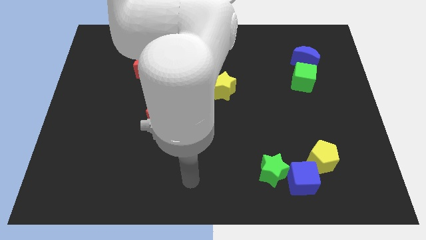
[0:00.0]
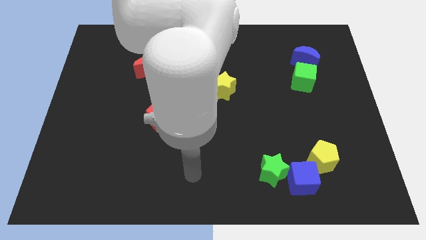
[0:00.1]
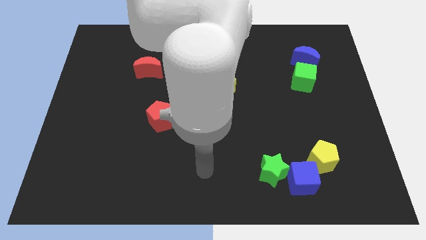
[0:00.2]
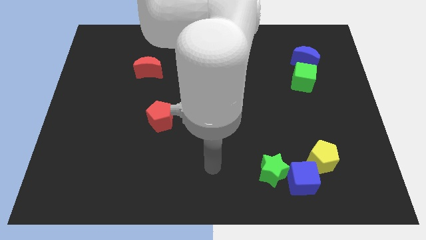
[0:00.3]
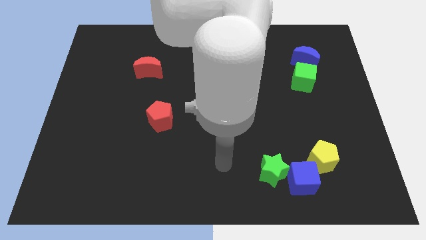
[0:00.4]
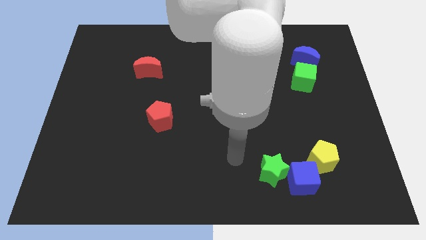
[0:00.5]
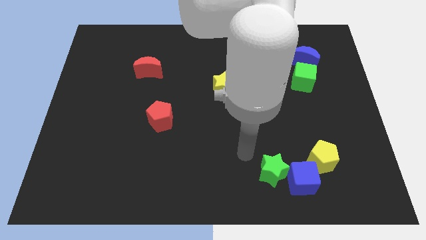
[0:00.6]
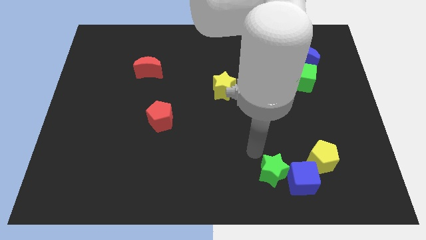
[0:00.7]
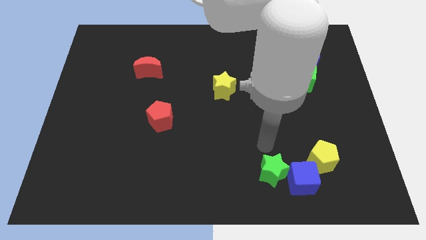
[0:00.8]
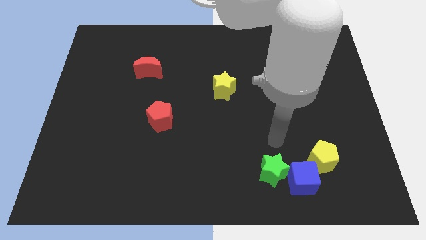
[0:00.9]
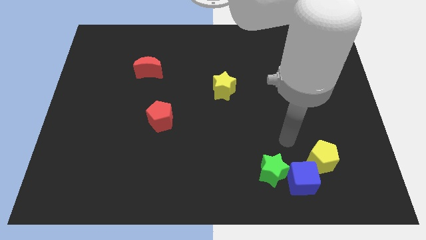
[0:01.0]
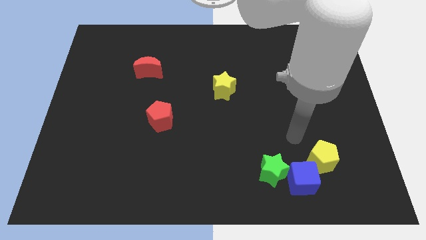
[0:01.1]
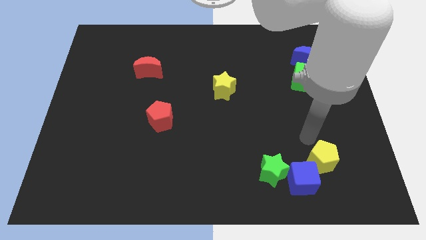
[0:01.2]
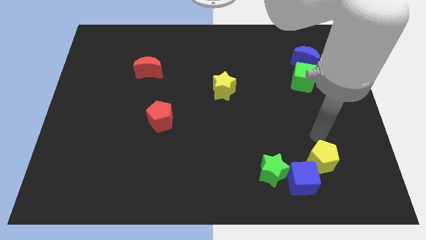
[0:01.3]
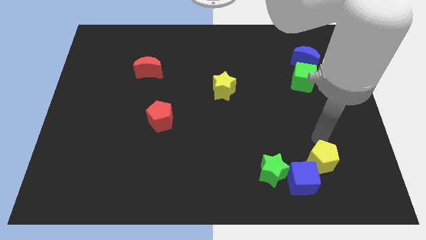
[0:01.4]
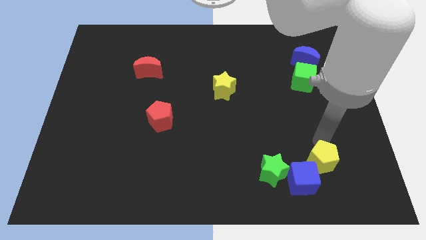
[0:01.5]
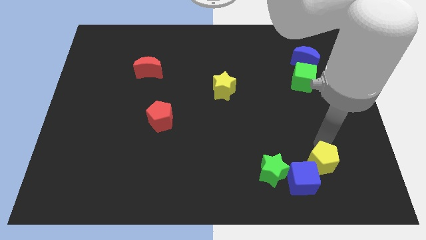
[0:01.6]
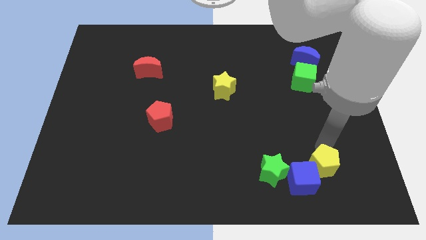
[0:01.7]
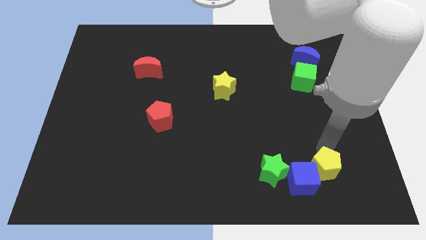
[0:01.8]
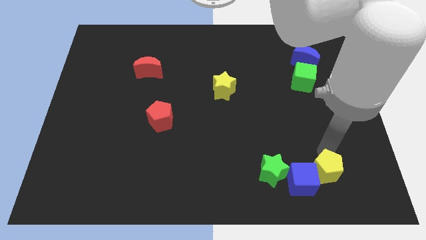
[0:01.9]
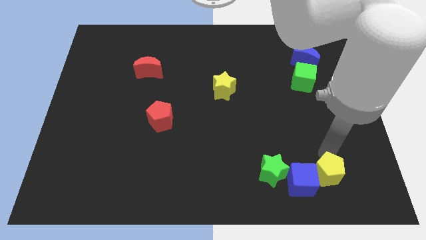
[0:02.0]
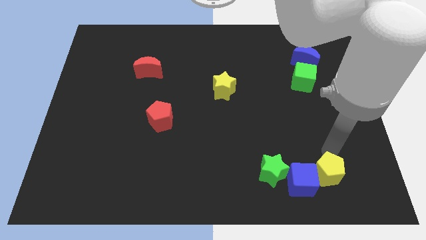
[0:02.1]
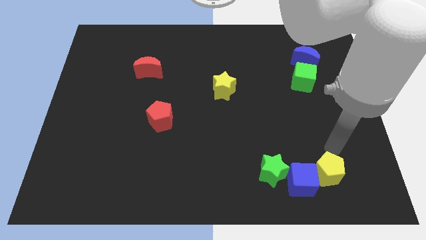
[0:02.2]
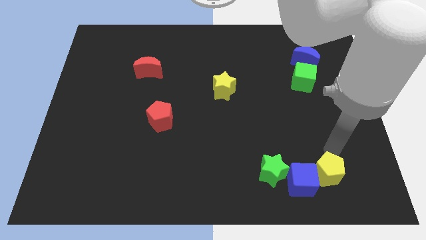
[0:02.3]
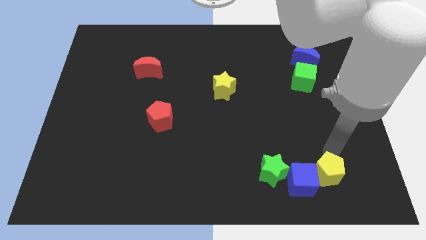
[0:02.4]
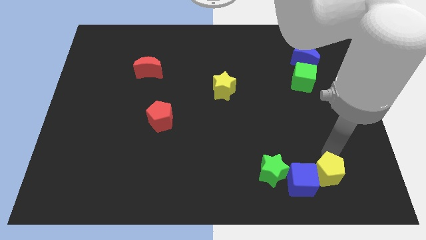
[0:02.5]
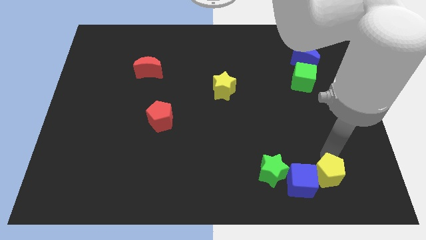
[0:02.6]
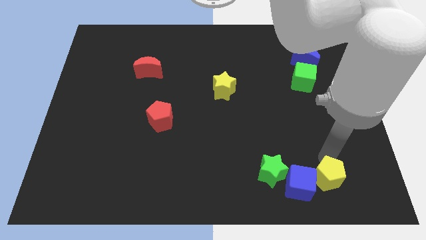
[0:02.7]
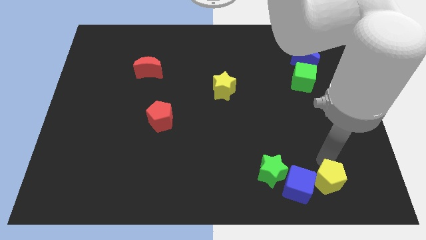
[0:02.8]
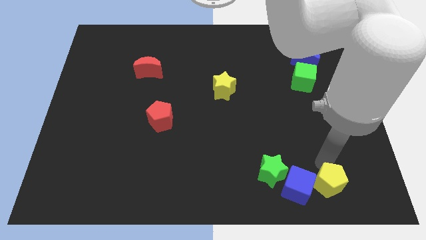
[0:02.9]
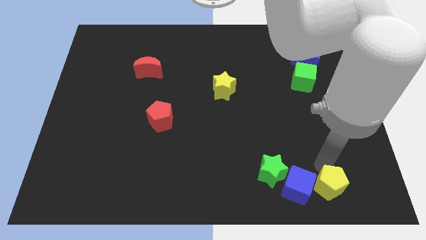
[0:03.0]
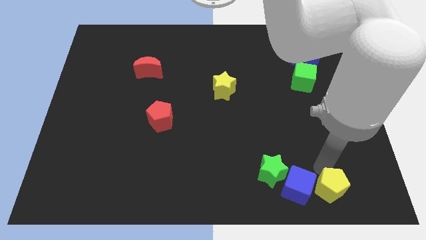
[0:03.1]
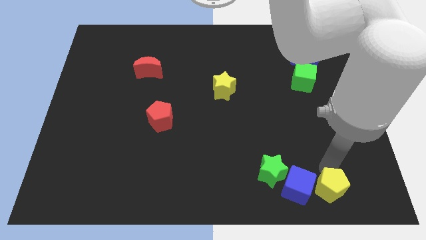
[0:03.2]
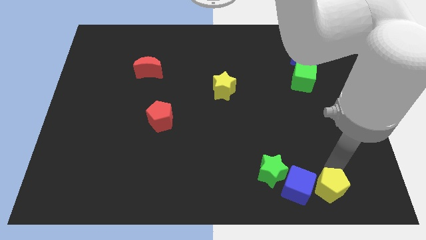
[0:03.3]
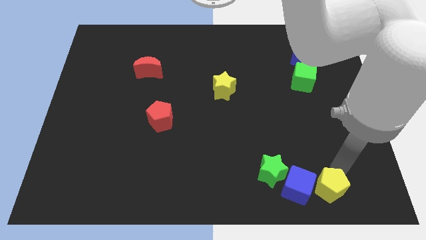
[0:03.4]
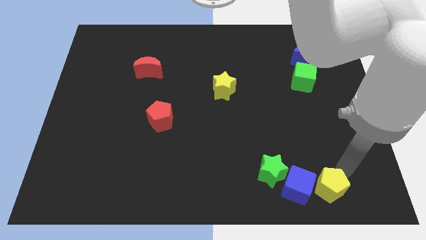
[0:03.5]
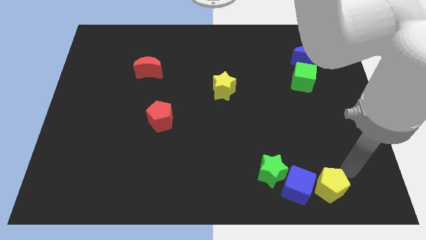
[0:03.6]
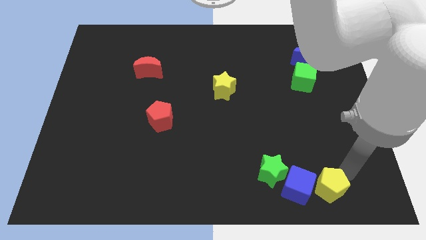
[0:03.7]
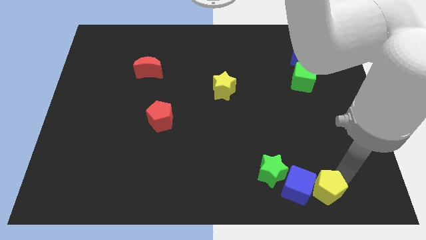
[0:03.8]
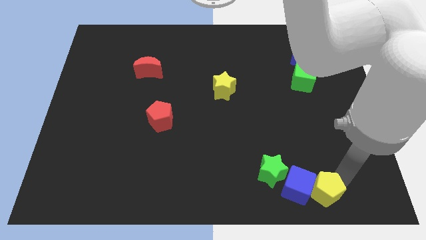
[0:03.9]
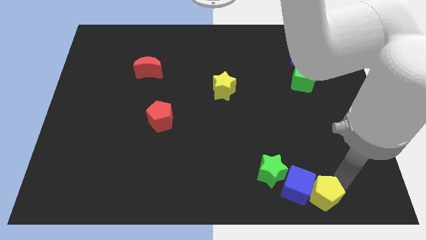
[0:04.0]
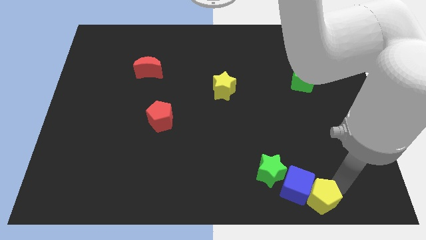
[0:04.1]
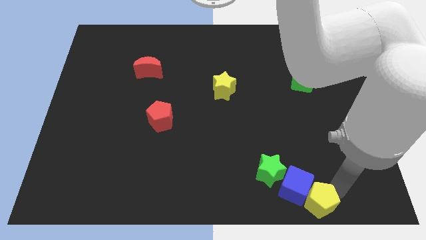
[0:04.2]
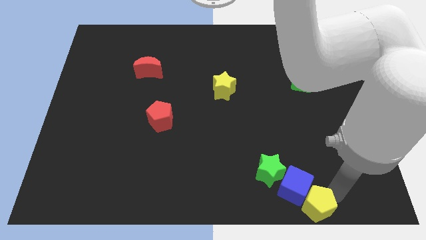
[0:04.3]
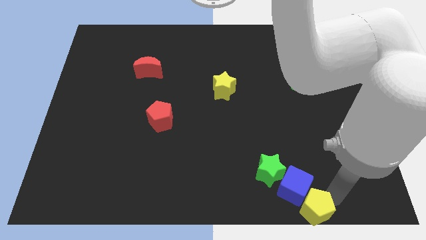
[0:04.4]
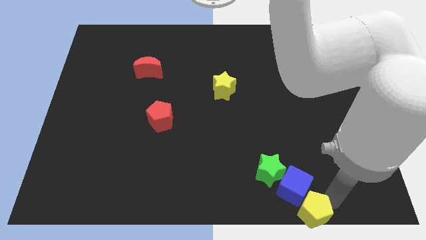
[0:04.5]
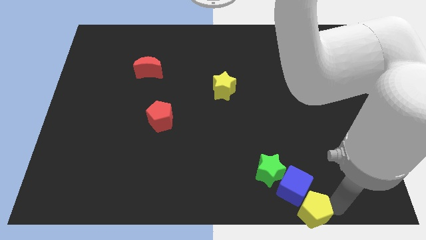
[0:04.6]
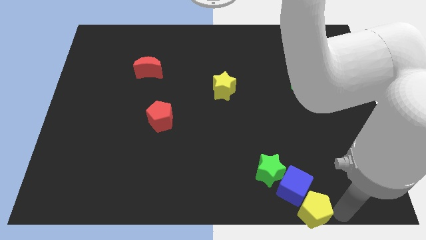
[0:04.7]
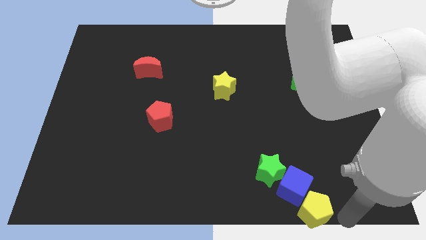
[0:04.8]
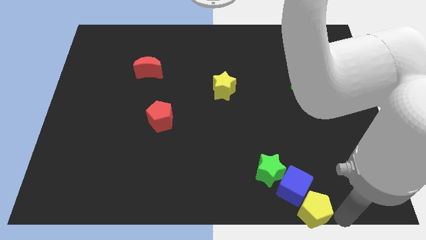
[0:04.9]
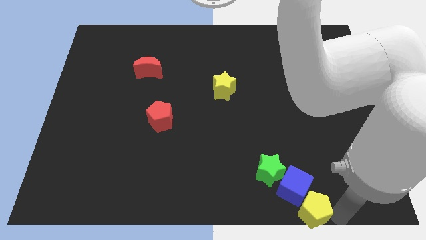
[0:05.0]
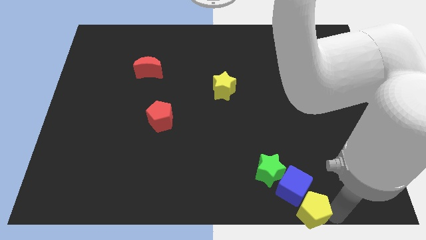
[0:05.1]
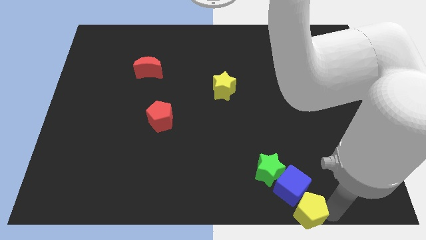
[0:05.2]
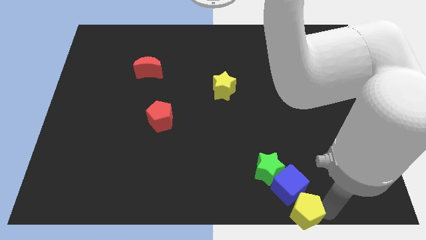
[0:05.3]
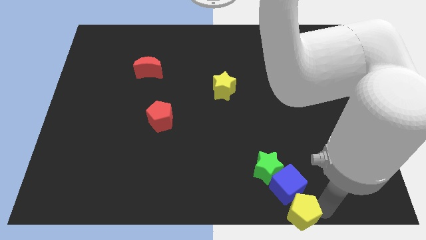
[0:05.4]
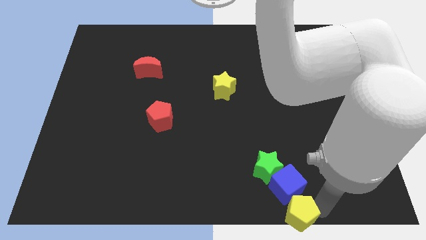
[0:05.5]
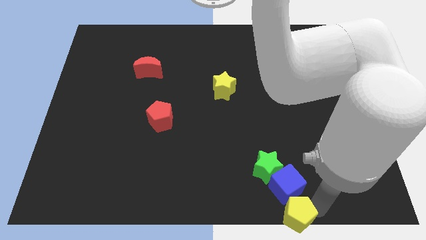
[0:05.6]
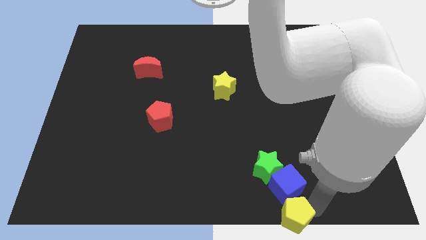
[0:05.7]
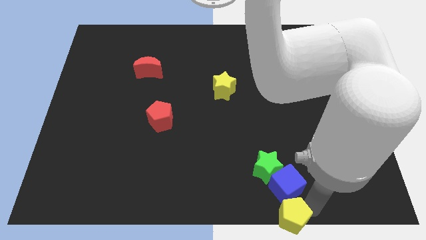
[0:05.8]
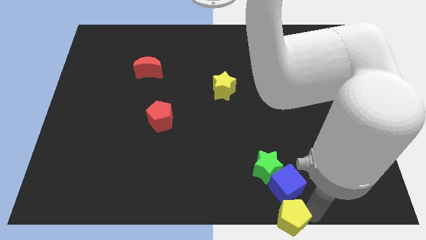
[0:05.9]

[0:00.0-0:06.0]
move the yellow pentagon to the bottom side

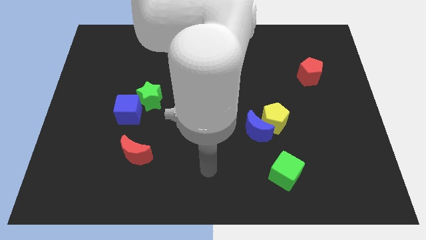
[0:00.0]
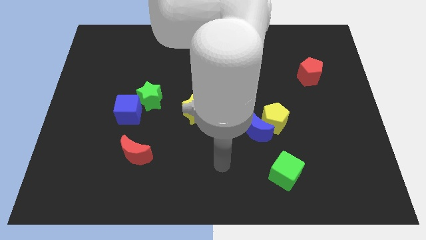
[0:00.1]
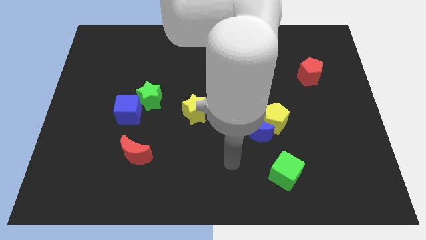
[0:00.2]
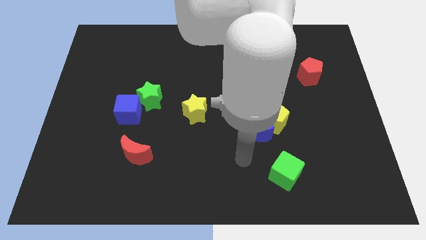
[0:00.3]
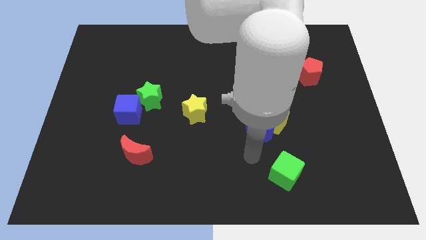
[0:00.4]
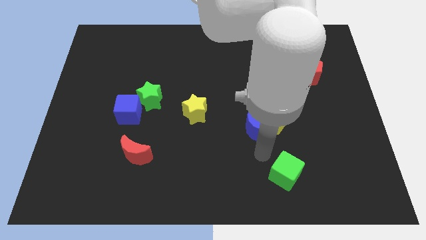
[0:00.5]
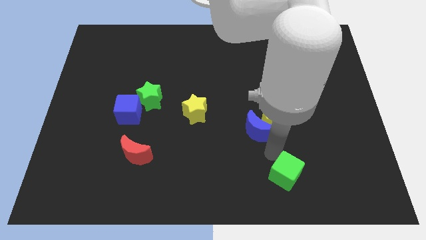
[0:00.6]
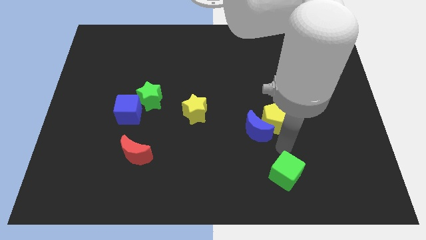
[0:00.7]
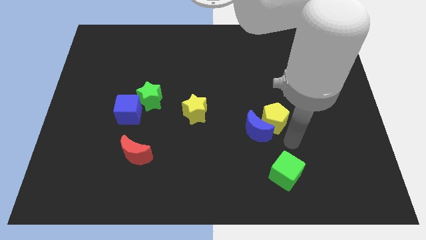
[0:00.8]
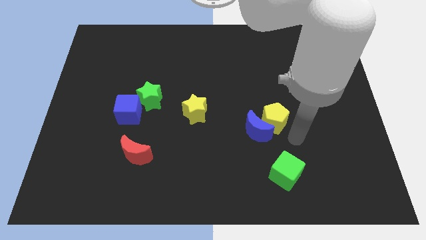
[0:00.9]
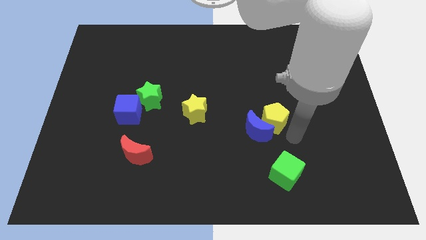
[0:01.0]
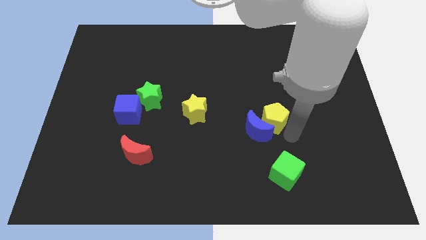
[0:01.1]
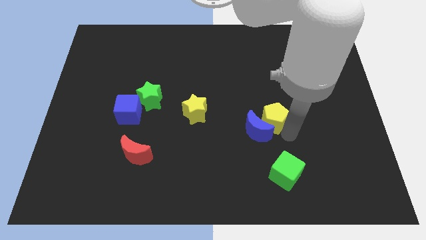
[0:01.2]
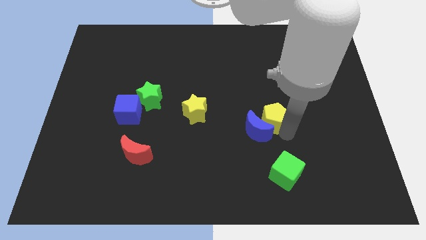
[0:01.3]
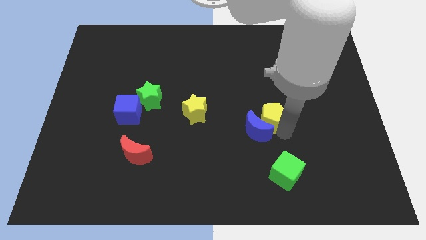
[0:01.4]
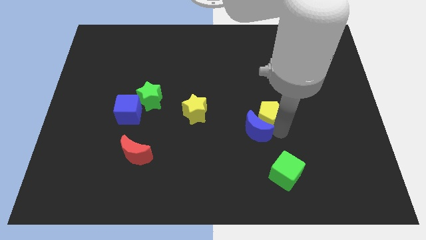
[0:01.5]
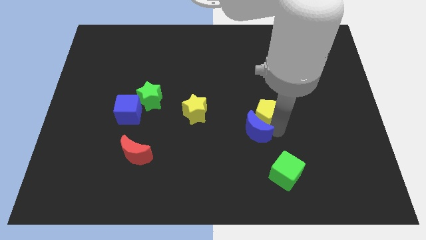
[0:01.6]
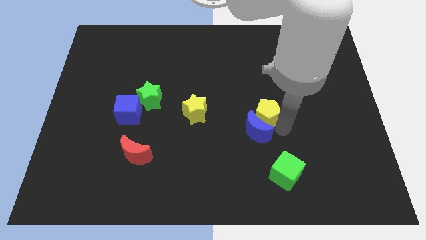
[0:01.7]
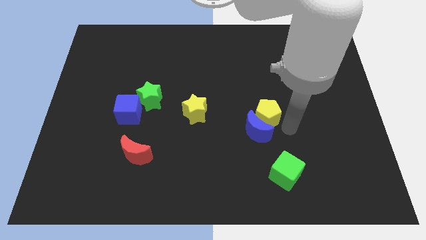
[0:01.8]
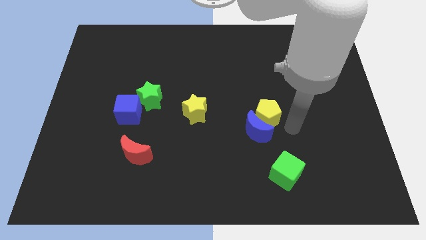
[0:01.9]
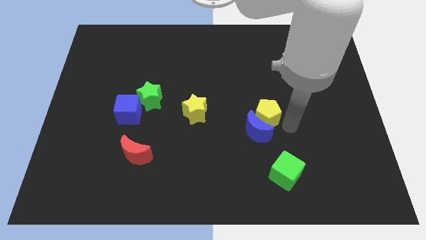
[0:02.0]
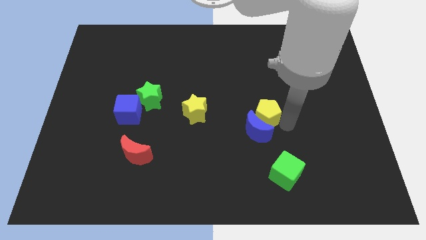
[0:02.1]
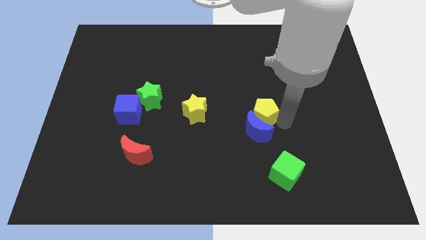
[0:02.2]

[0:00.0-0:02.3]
put the yellow pentagon to the center
